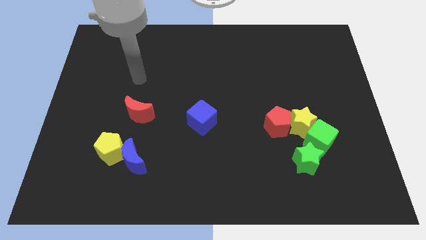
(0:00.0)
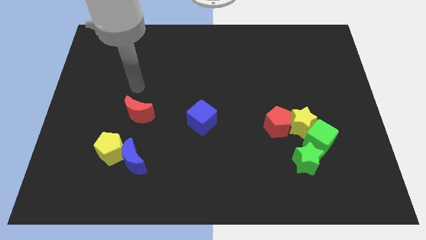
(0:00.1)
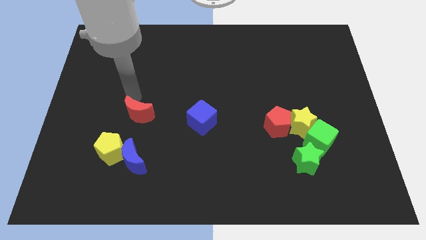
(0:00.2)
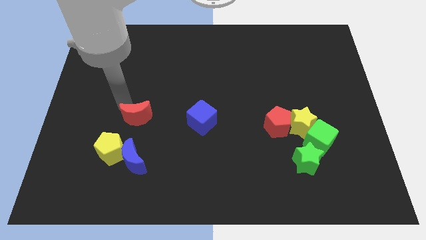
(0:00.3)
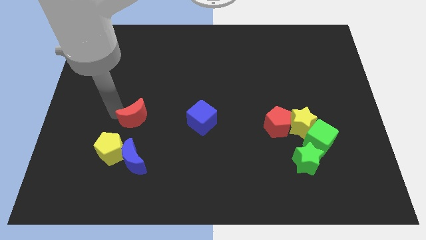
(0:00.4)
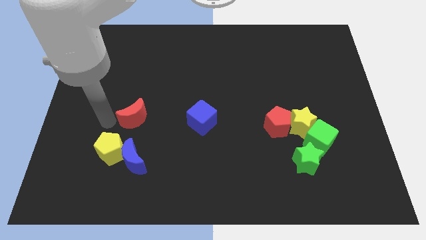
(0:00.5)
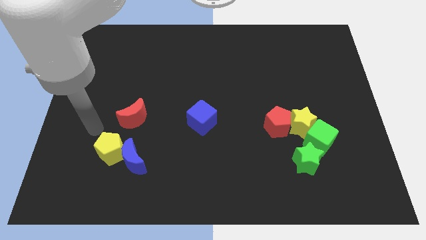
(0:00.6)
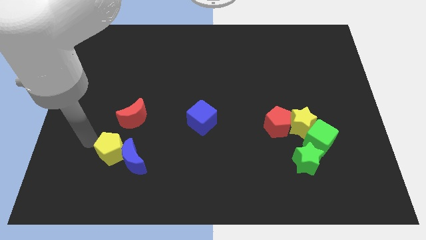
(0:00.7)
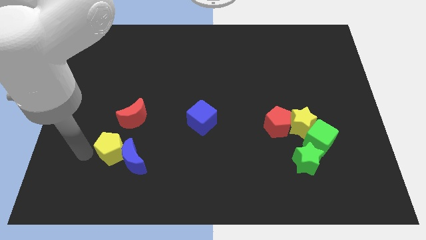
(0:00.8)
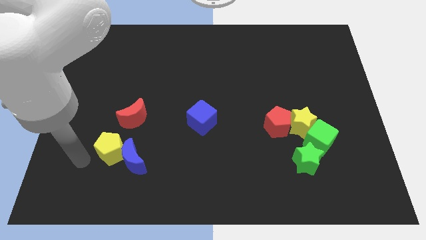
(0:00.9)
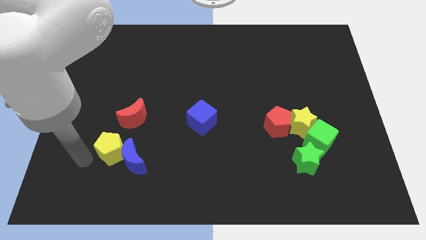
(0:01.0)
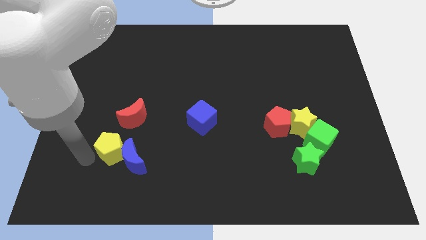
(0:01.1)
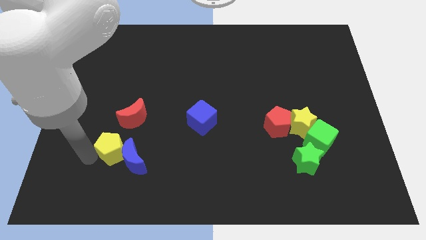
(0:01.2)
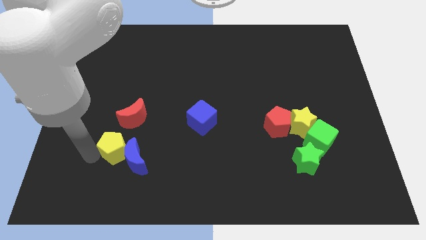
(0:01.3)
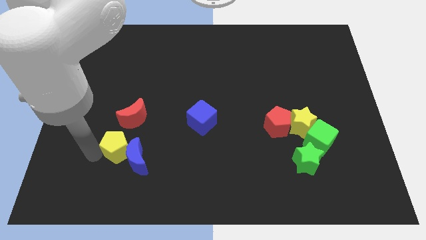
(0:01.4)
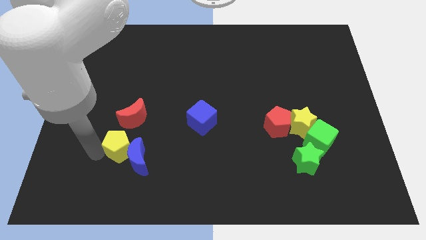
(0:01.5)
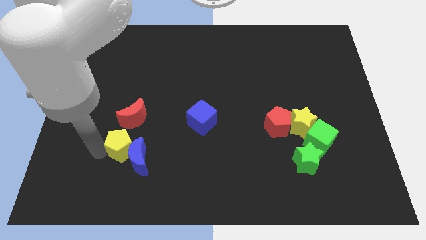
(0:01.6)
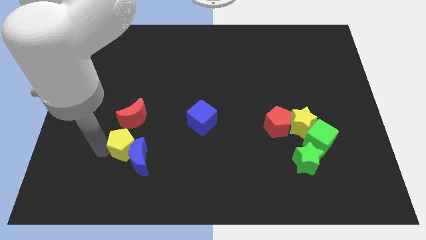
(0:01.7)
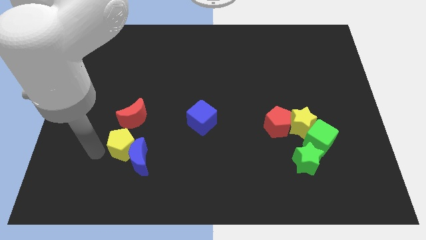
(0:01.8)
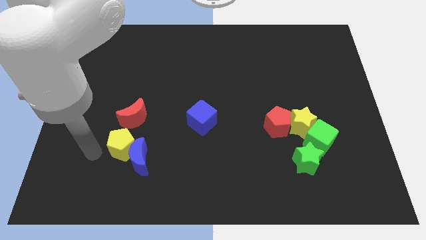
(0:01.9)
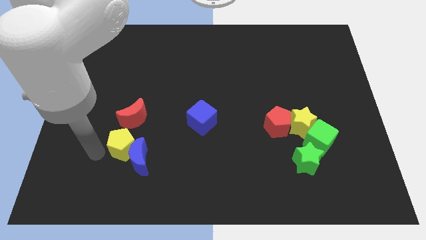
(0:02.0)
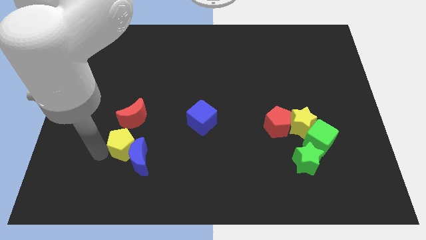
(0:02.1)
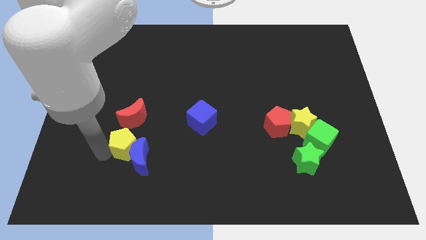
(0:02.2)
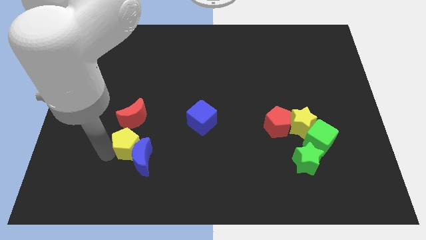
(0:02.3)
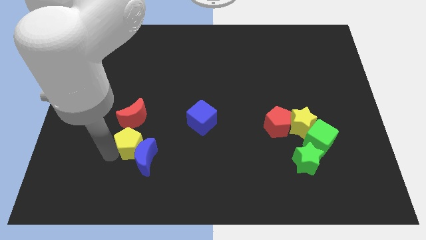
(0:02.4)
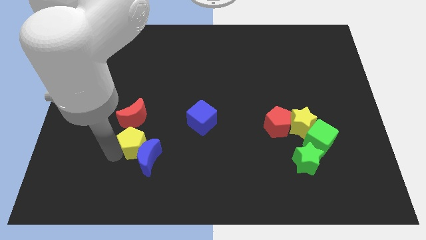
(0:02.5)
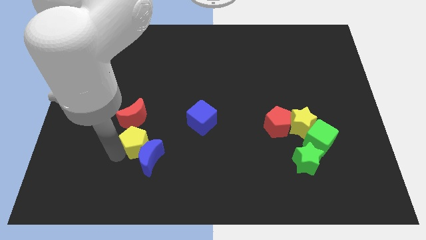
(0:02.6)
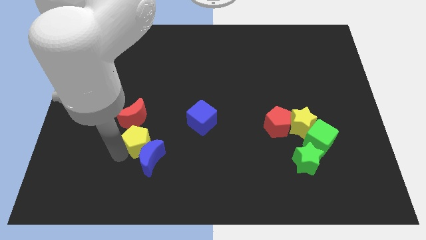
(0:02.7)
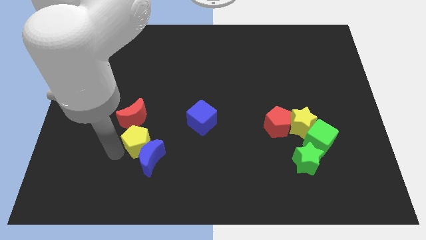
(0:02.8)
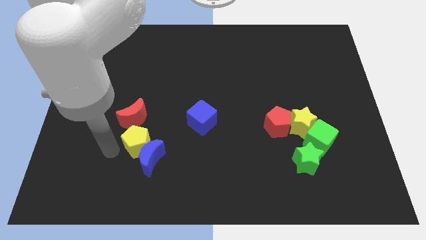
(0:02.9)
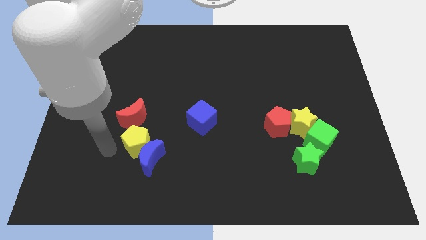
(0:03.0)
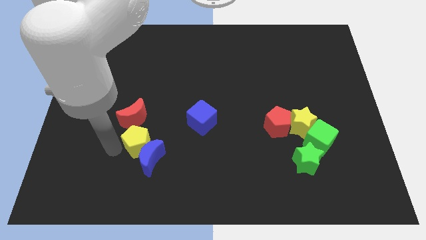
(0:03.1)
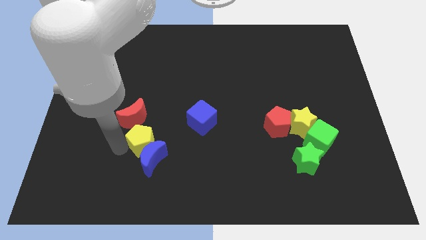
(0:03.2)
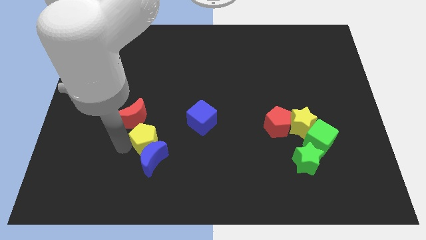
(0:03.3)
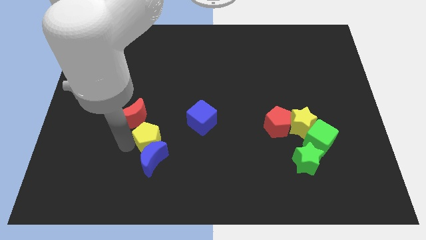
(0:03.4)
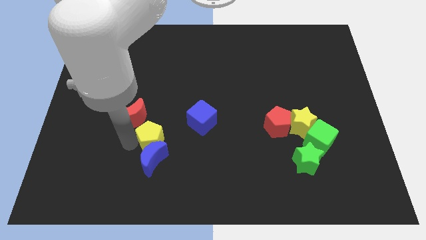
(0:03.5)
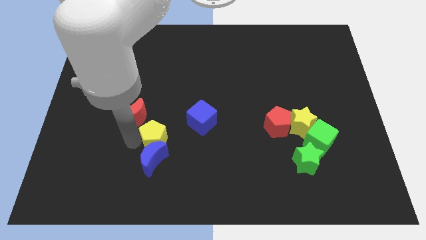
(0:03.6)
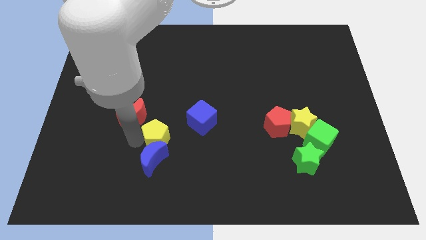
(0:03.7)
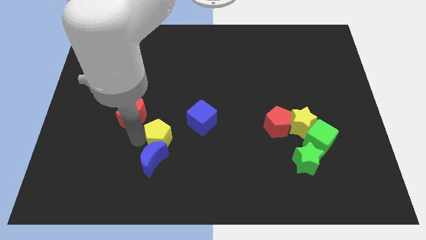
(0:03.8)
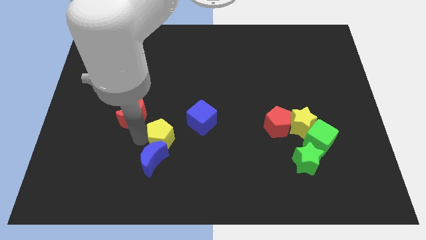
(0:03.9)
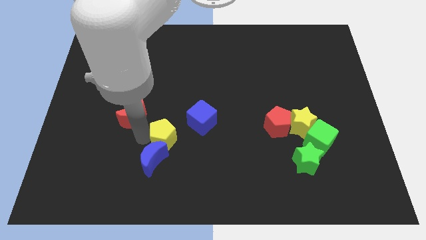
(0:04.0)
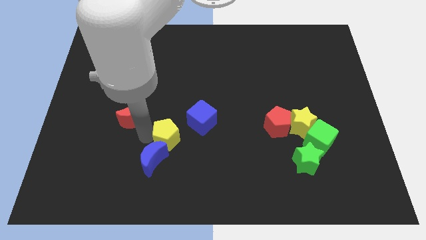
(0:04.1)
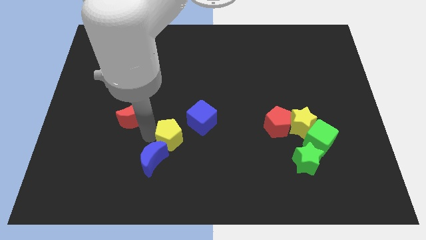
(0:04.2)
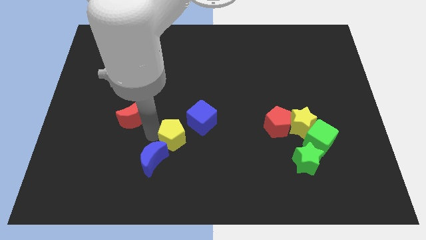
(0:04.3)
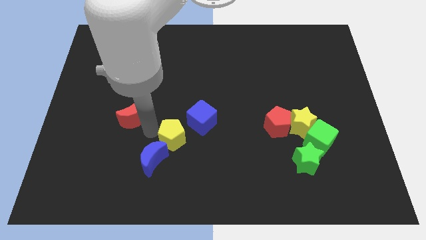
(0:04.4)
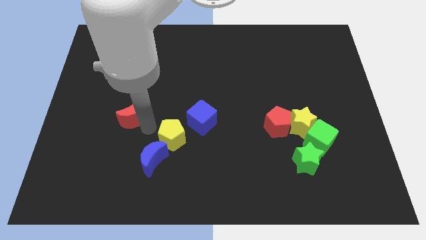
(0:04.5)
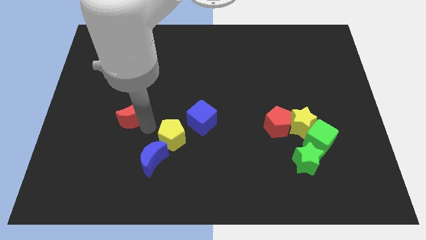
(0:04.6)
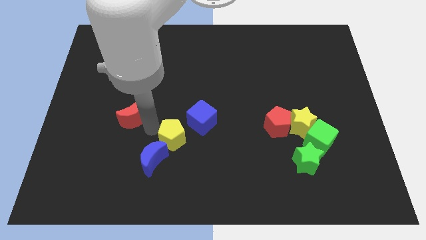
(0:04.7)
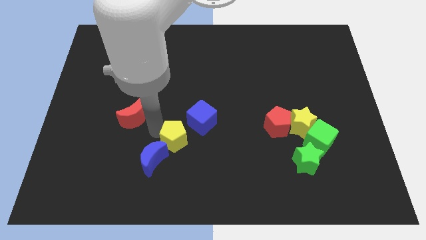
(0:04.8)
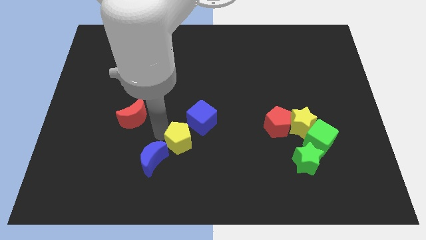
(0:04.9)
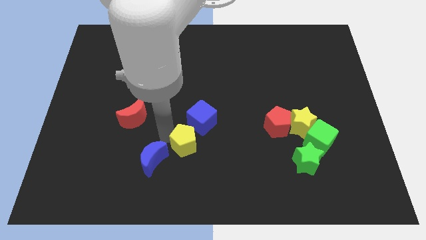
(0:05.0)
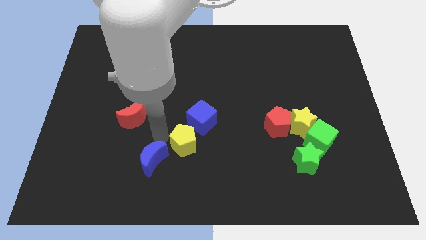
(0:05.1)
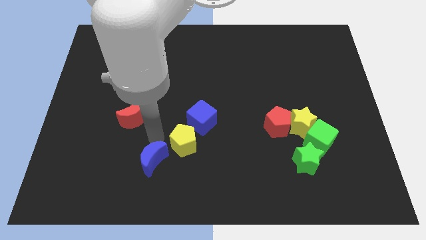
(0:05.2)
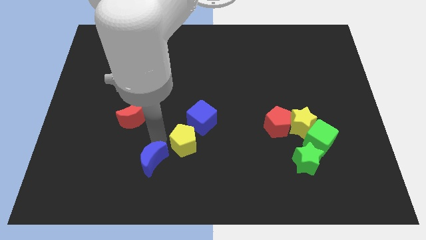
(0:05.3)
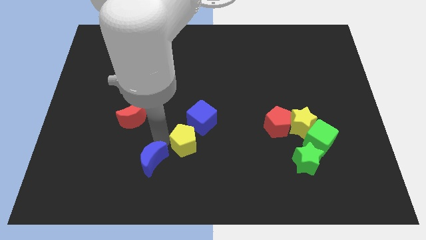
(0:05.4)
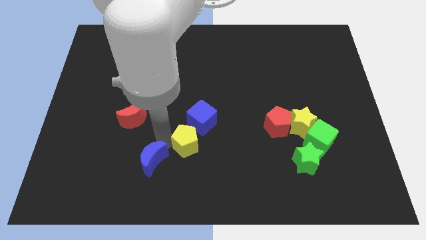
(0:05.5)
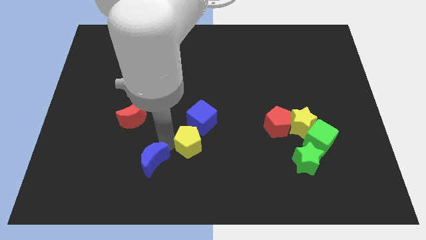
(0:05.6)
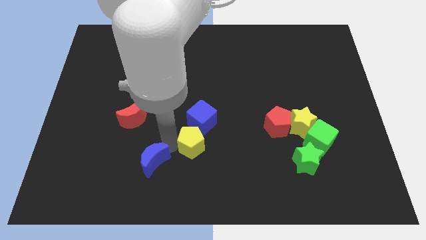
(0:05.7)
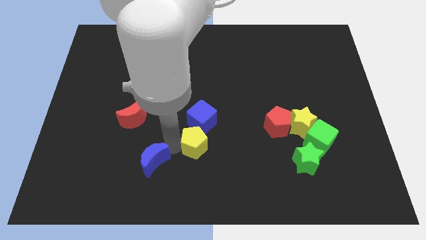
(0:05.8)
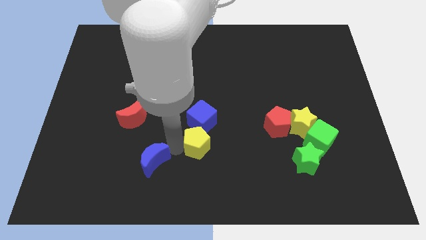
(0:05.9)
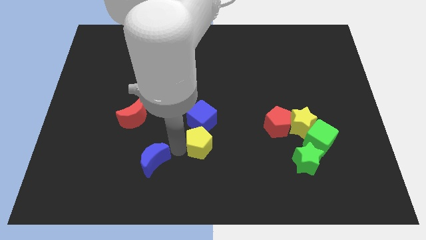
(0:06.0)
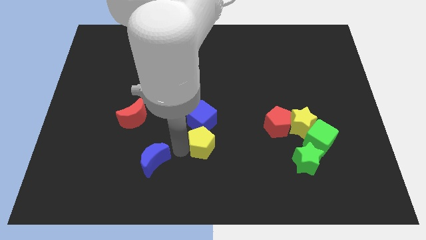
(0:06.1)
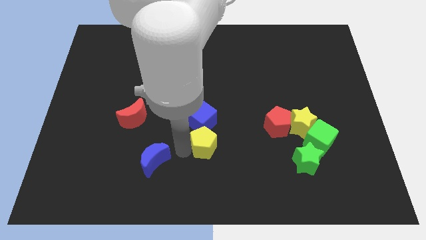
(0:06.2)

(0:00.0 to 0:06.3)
move the yellow pentagon right

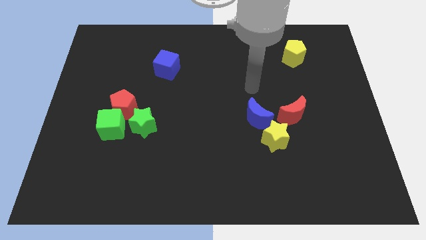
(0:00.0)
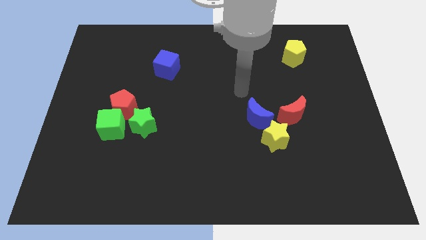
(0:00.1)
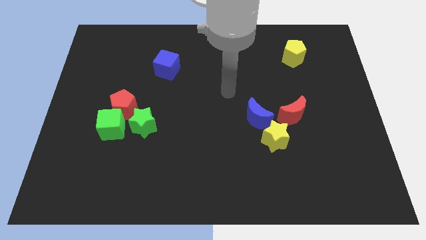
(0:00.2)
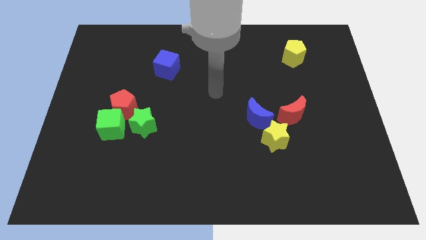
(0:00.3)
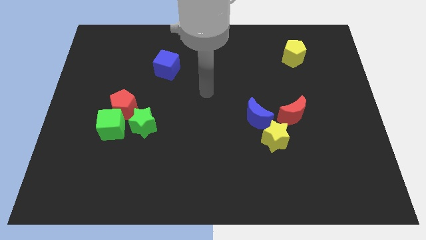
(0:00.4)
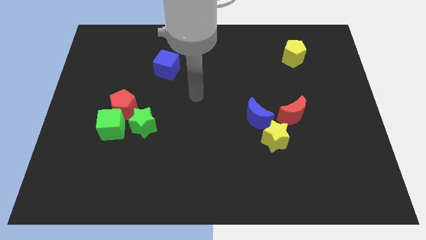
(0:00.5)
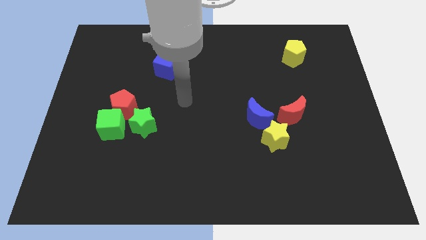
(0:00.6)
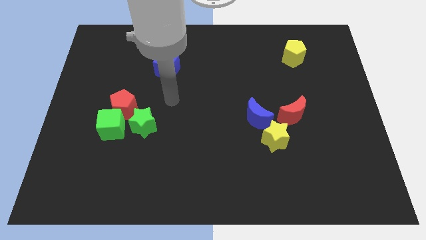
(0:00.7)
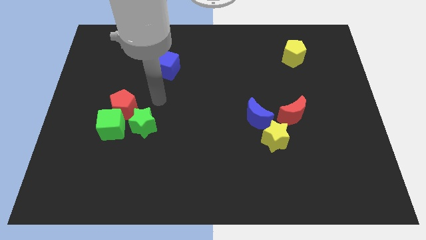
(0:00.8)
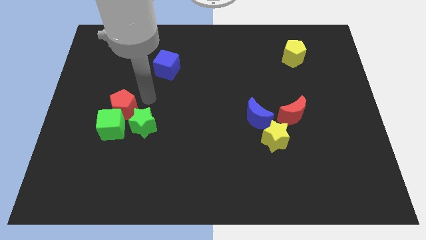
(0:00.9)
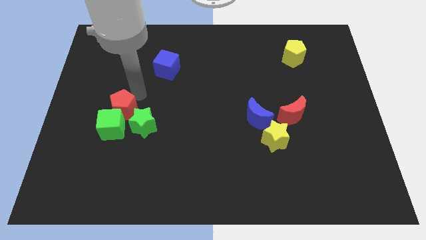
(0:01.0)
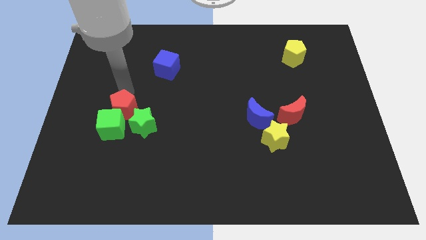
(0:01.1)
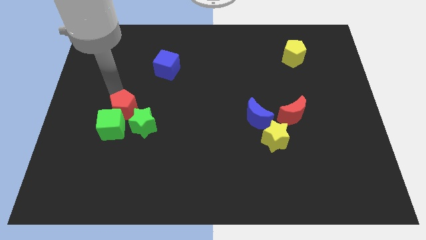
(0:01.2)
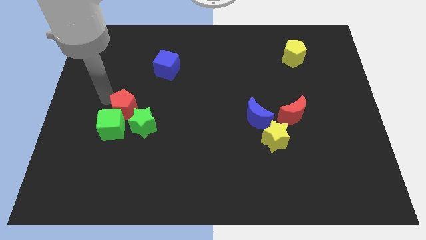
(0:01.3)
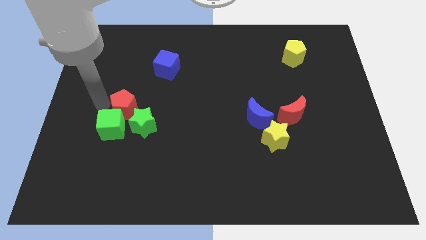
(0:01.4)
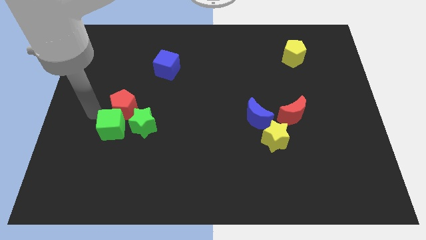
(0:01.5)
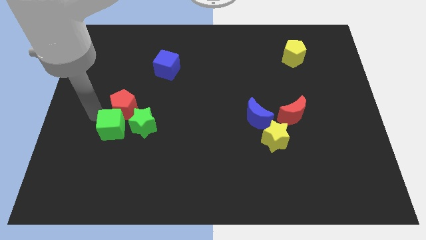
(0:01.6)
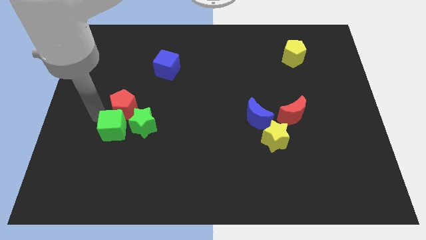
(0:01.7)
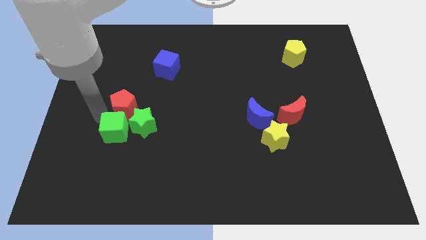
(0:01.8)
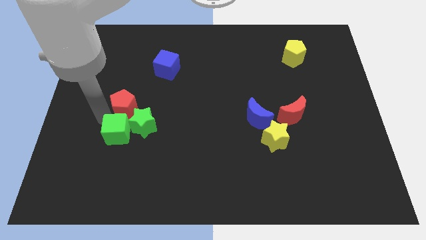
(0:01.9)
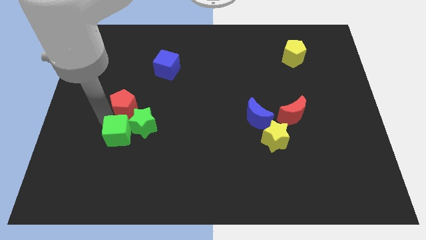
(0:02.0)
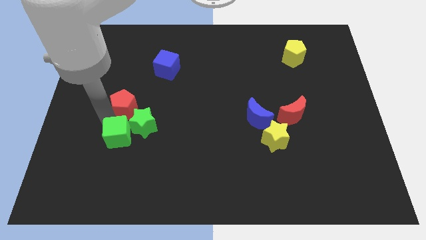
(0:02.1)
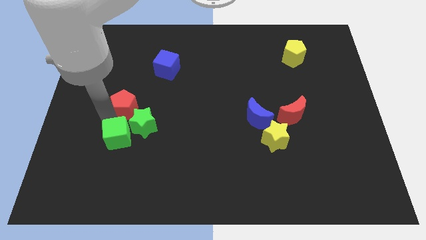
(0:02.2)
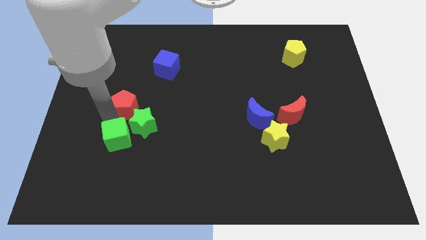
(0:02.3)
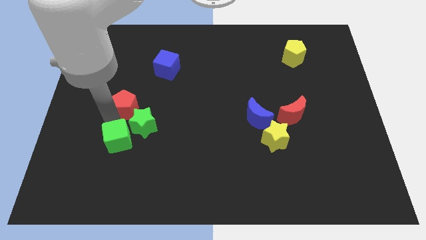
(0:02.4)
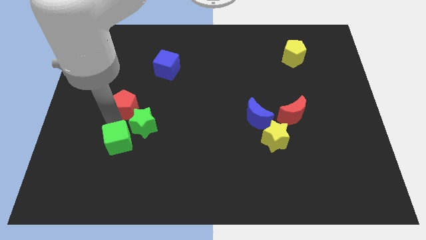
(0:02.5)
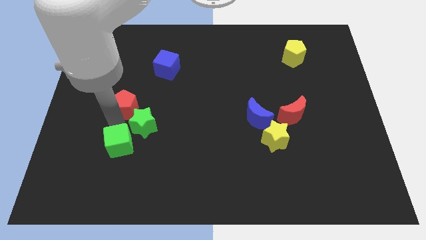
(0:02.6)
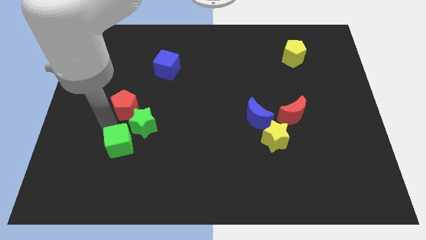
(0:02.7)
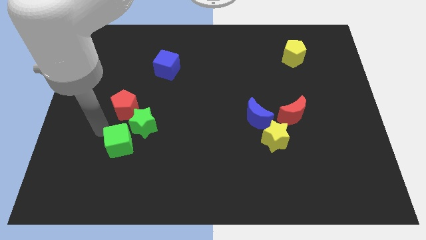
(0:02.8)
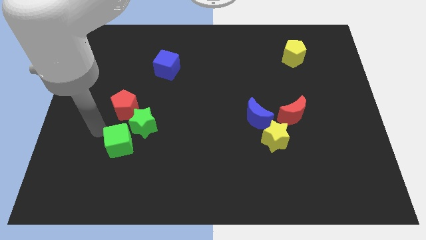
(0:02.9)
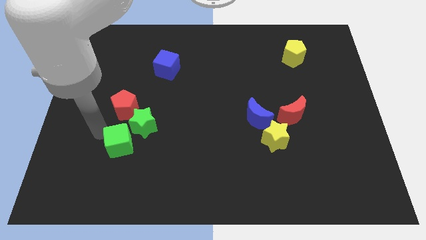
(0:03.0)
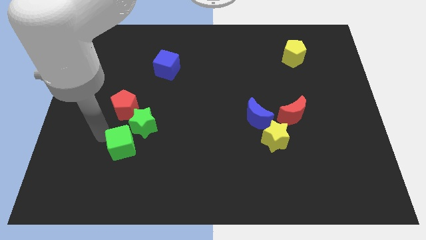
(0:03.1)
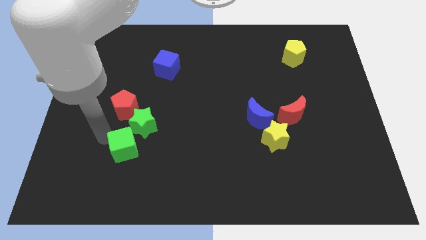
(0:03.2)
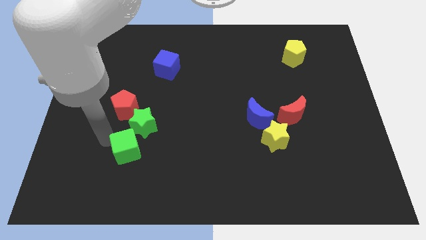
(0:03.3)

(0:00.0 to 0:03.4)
push the green cube slightly down and right
